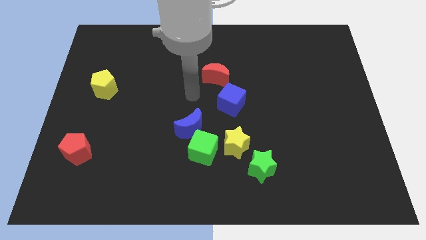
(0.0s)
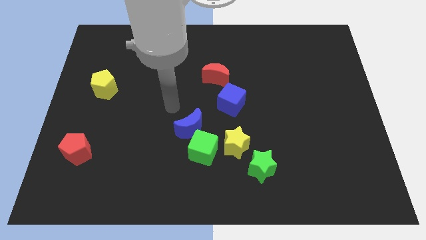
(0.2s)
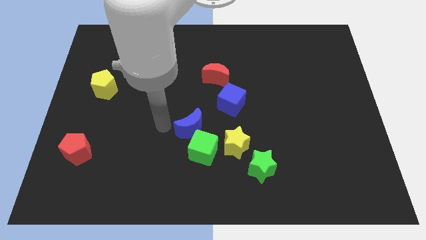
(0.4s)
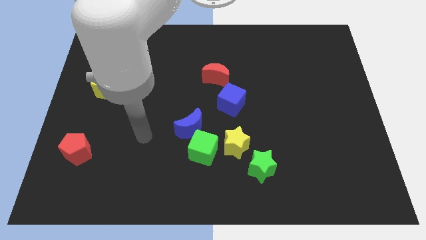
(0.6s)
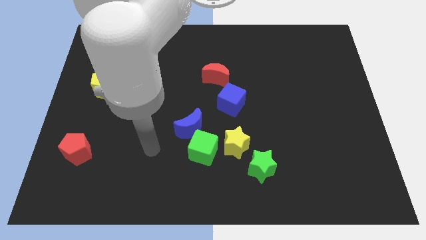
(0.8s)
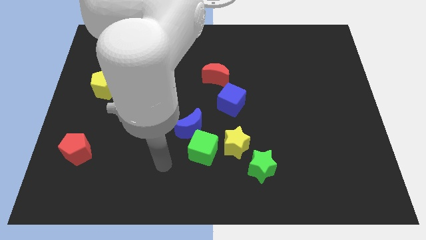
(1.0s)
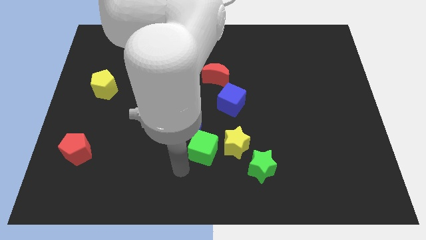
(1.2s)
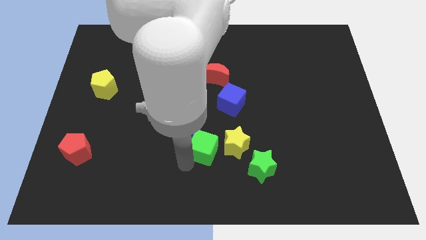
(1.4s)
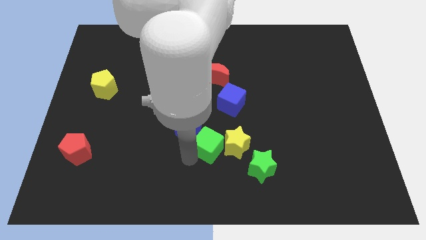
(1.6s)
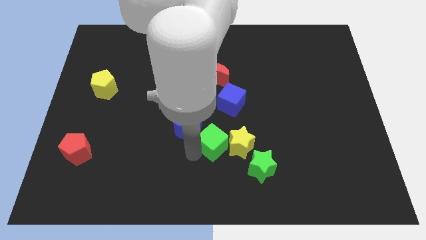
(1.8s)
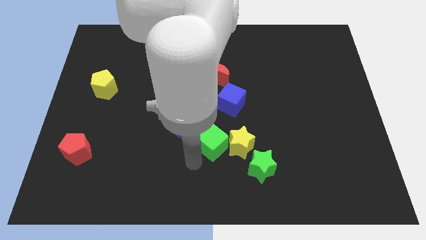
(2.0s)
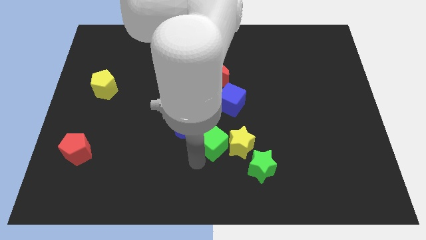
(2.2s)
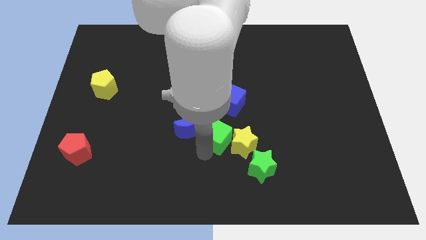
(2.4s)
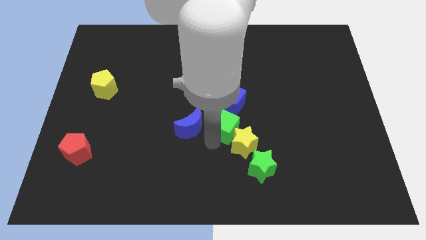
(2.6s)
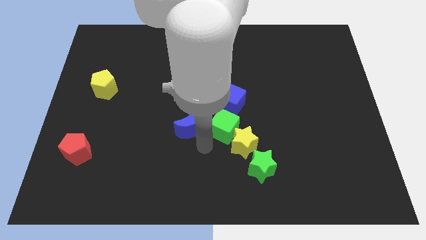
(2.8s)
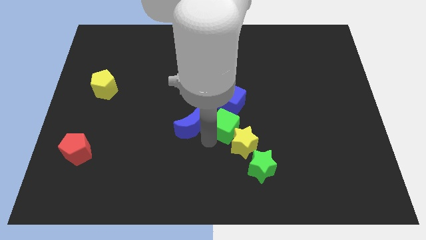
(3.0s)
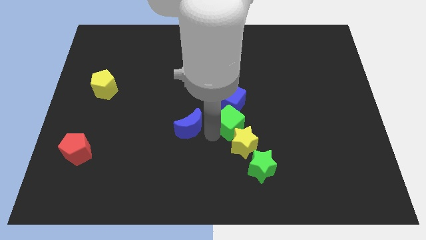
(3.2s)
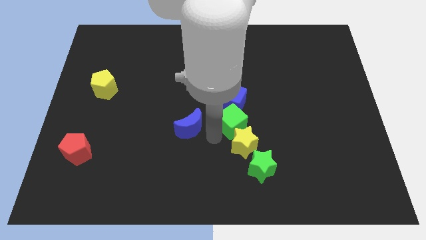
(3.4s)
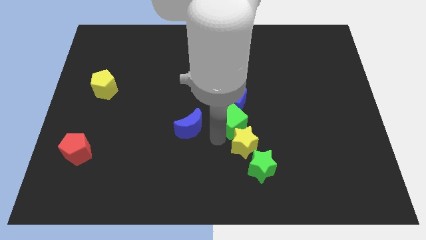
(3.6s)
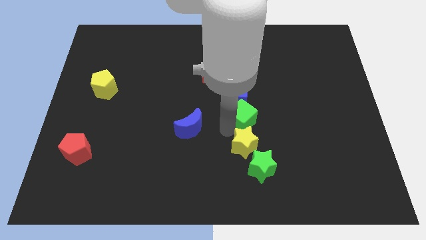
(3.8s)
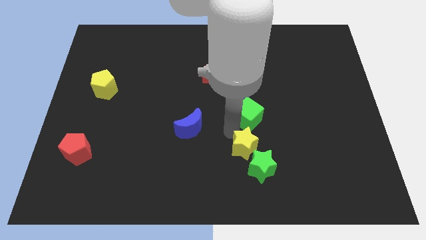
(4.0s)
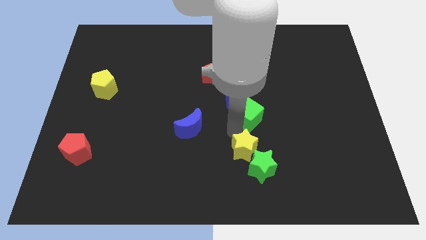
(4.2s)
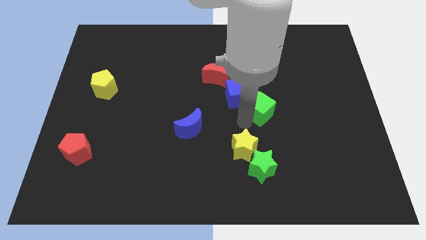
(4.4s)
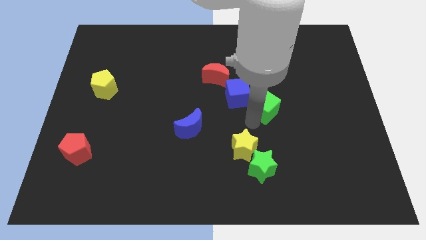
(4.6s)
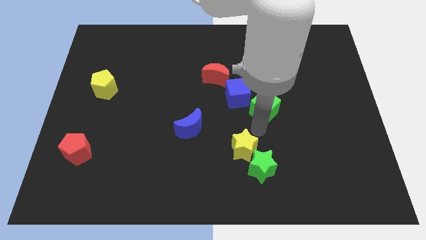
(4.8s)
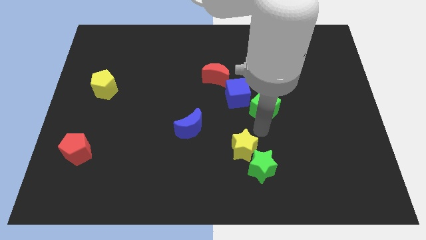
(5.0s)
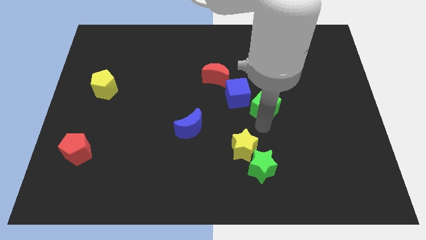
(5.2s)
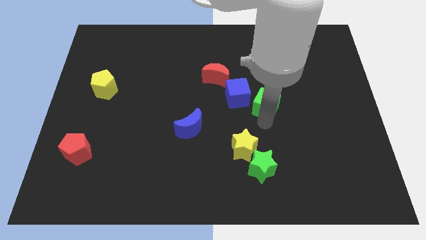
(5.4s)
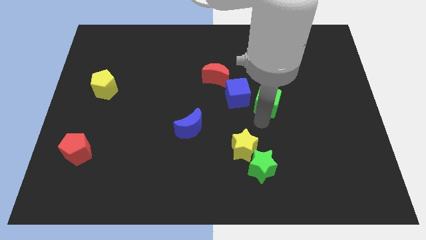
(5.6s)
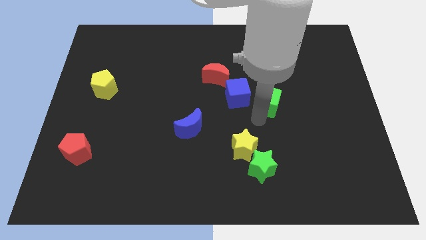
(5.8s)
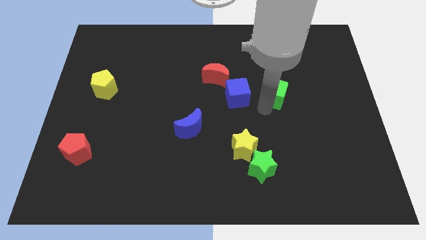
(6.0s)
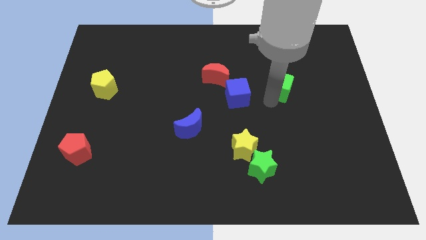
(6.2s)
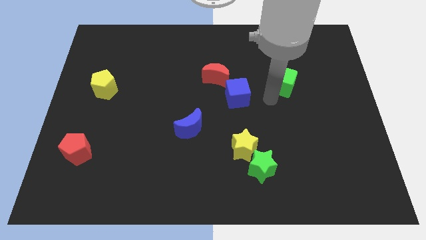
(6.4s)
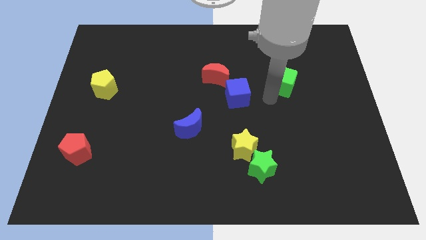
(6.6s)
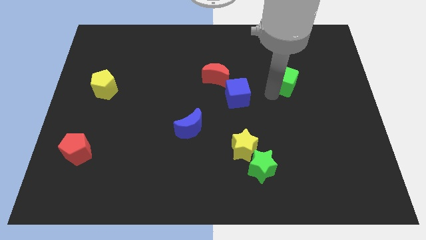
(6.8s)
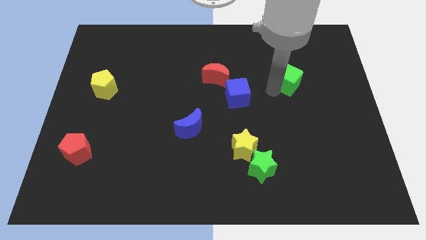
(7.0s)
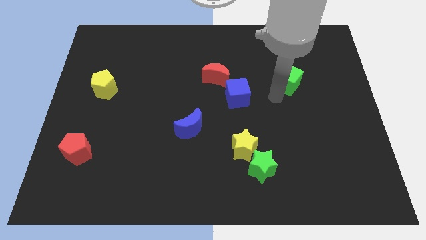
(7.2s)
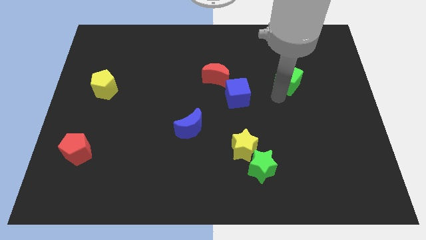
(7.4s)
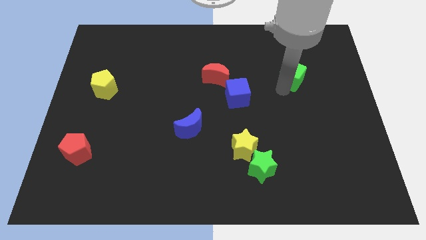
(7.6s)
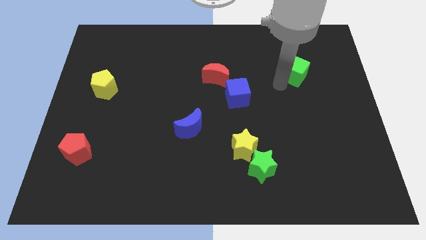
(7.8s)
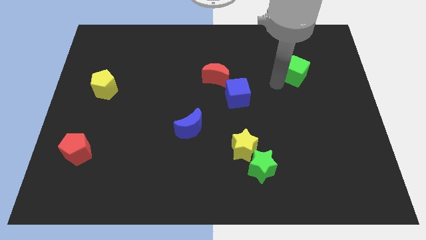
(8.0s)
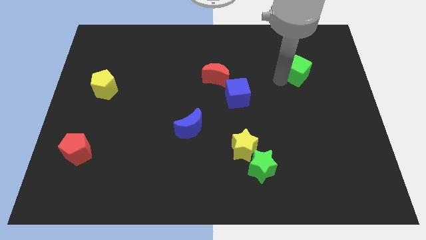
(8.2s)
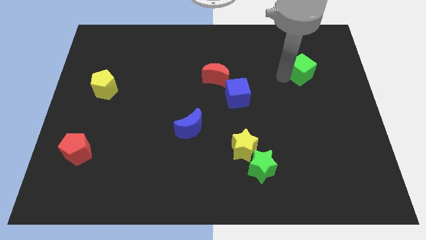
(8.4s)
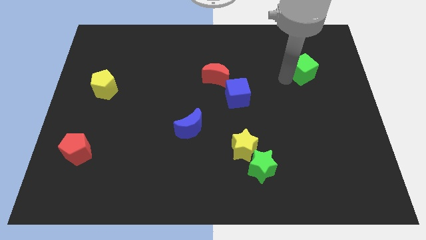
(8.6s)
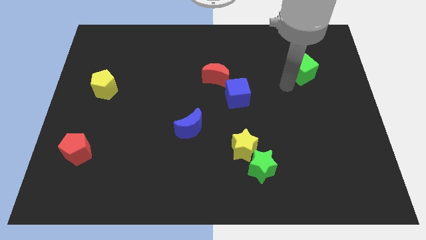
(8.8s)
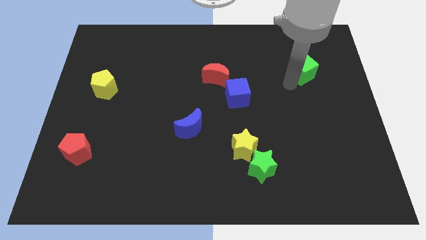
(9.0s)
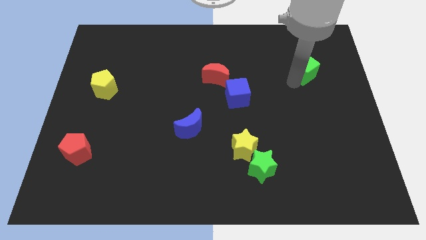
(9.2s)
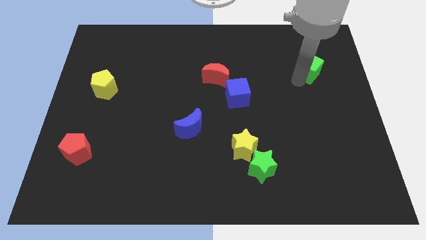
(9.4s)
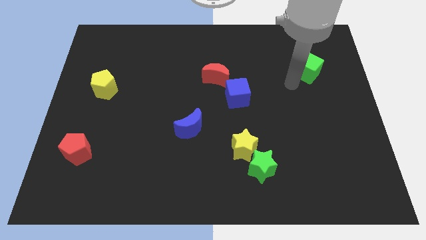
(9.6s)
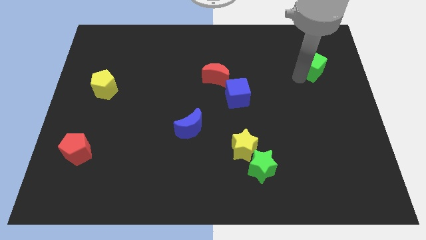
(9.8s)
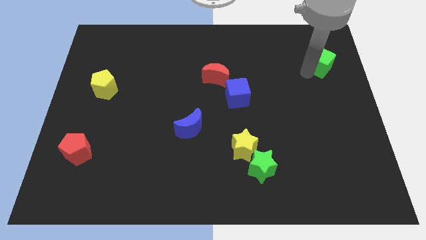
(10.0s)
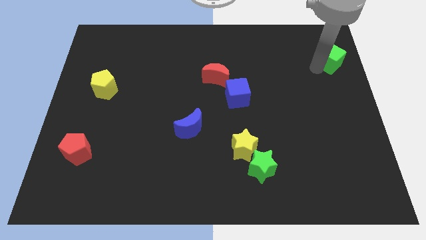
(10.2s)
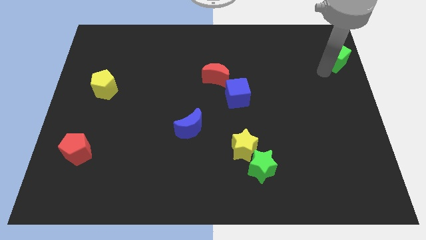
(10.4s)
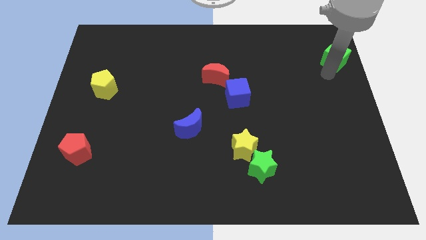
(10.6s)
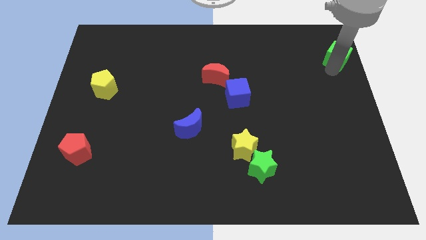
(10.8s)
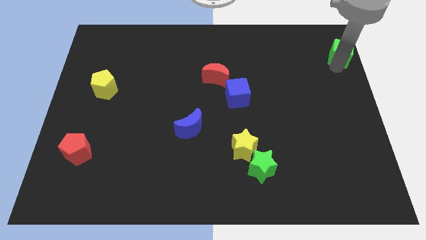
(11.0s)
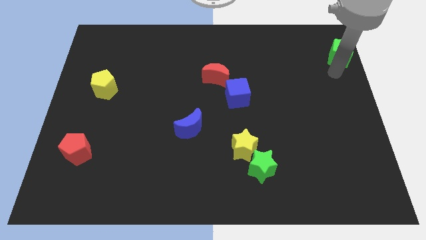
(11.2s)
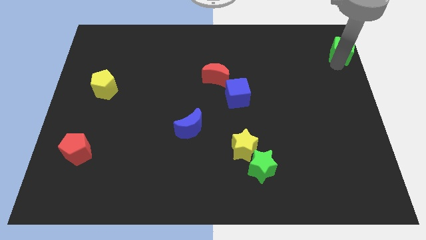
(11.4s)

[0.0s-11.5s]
push the green cube to the top right corner

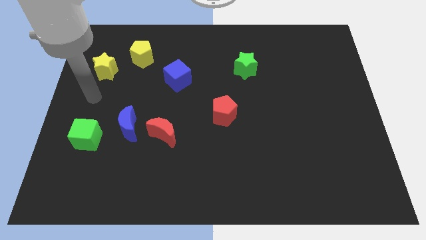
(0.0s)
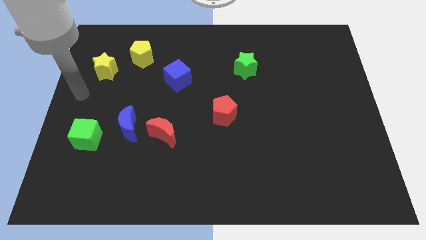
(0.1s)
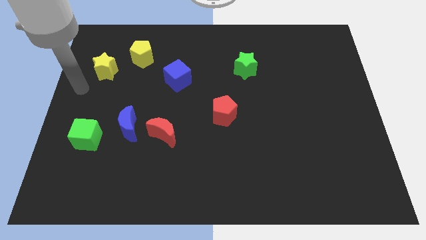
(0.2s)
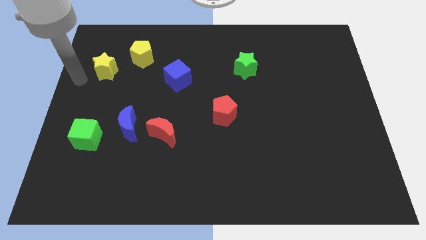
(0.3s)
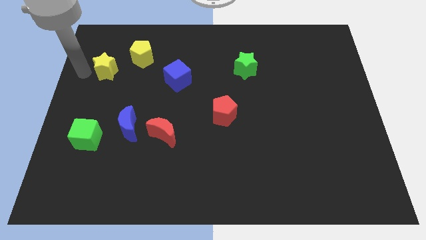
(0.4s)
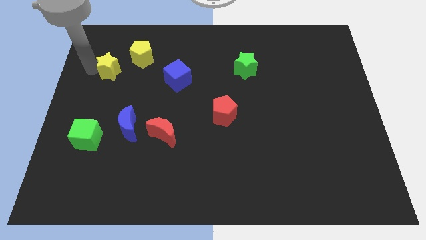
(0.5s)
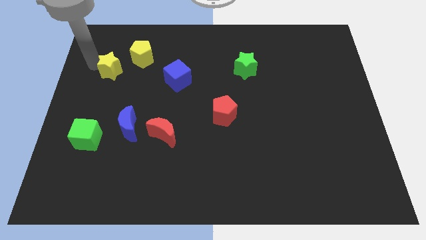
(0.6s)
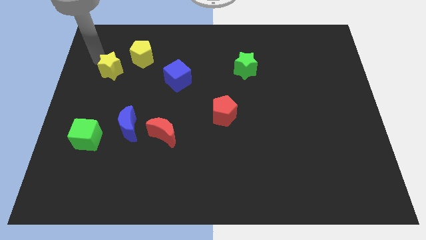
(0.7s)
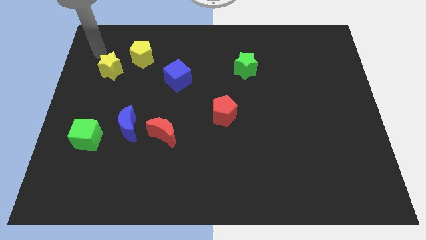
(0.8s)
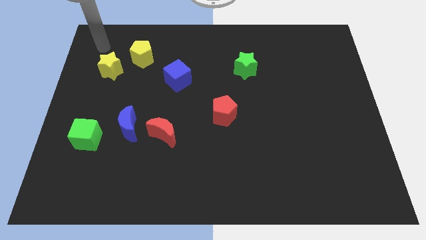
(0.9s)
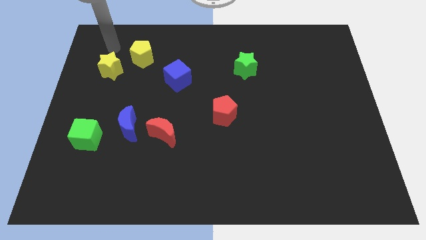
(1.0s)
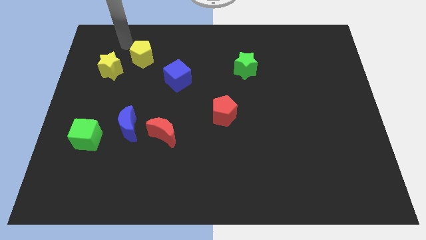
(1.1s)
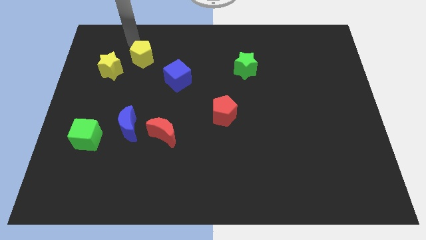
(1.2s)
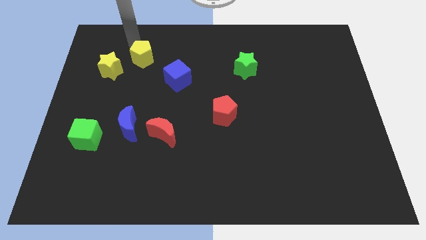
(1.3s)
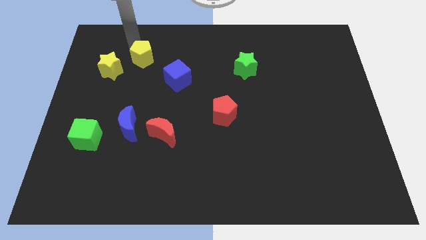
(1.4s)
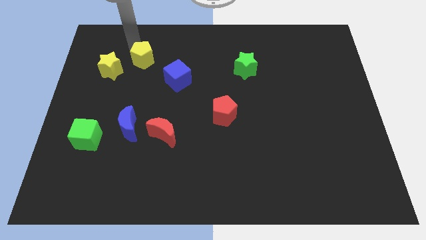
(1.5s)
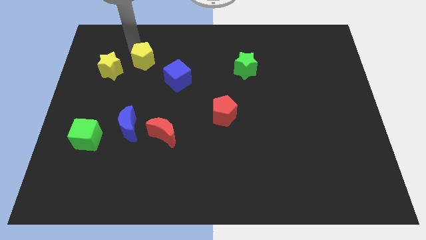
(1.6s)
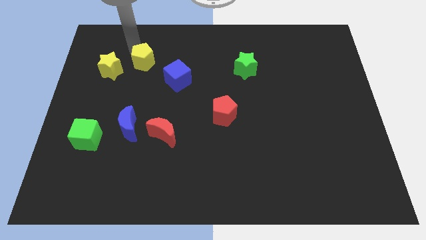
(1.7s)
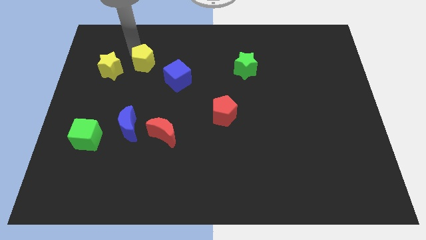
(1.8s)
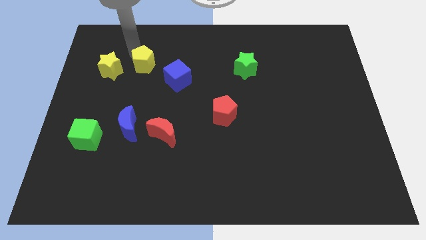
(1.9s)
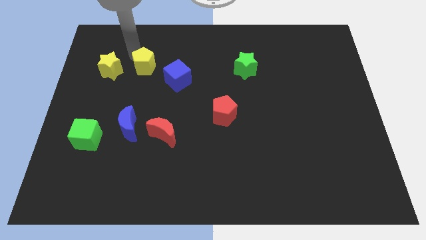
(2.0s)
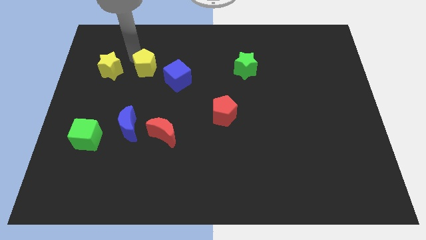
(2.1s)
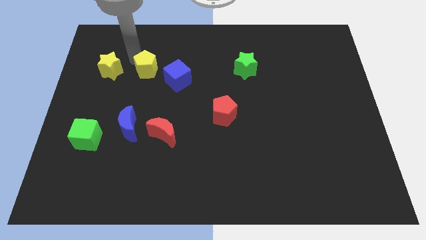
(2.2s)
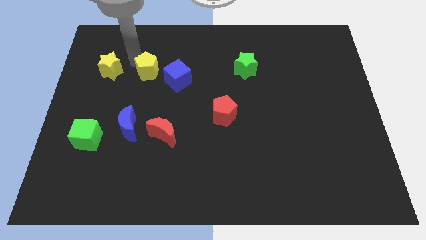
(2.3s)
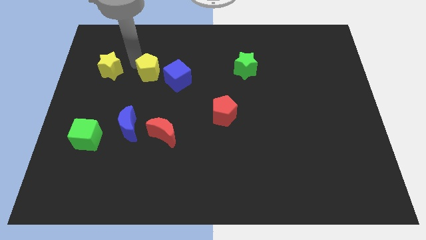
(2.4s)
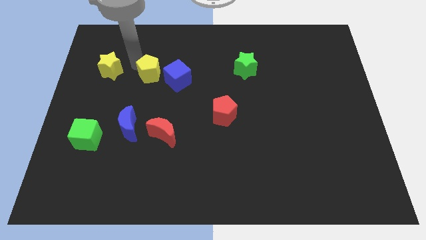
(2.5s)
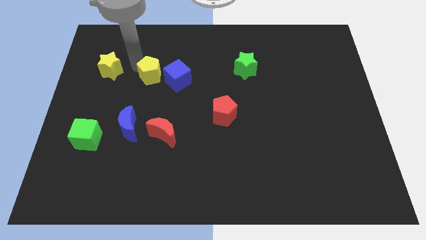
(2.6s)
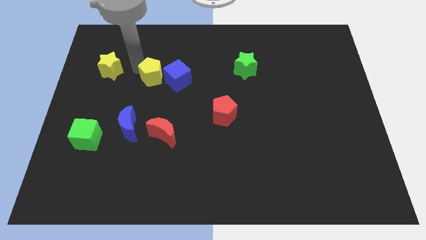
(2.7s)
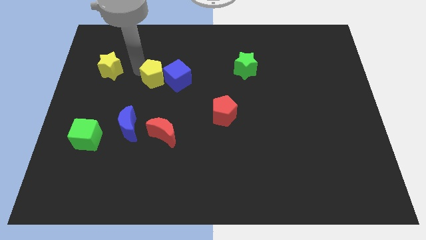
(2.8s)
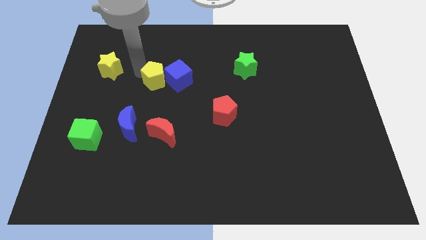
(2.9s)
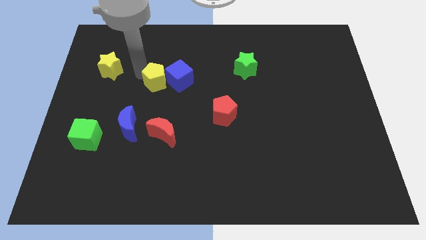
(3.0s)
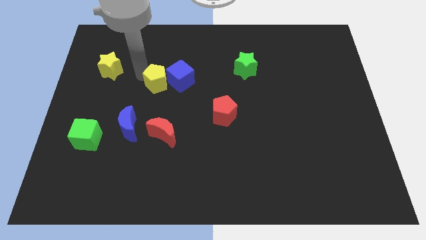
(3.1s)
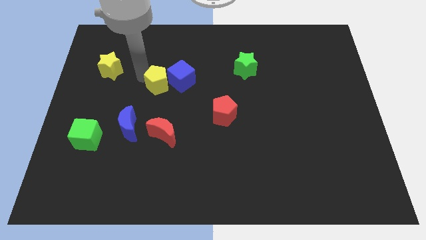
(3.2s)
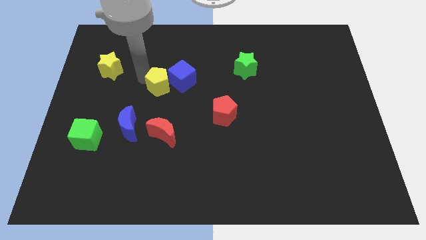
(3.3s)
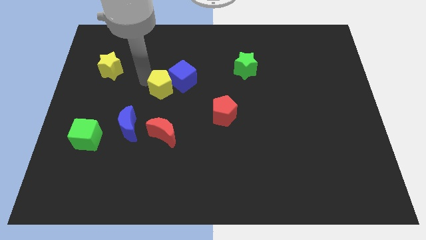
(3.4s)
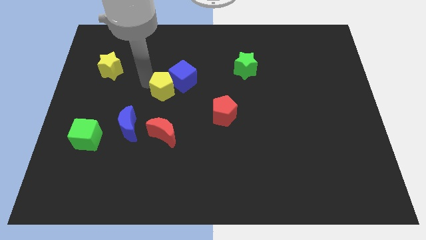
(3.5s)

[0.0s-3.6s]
push the yellow pentagon to the middle
